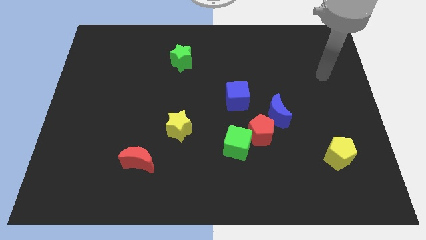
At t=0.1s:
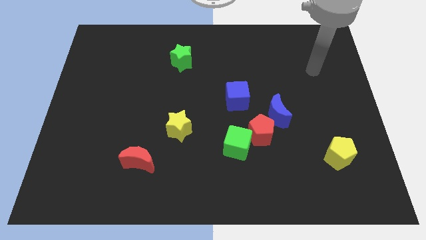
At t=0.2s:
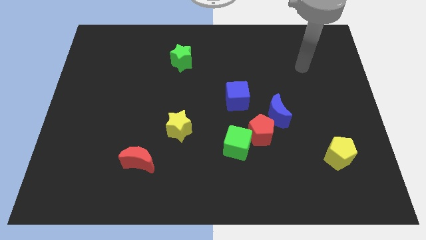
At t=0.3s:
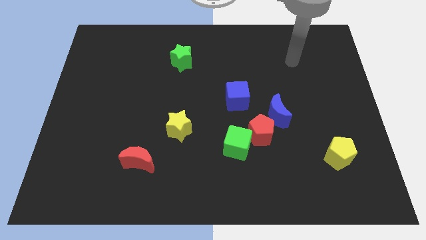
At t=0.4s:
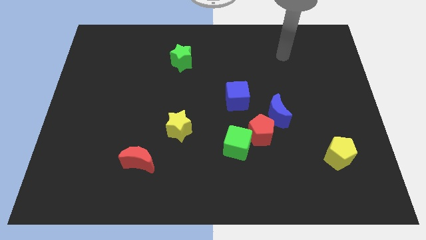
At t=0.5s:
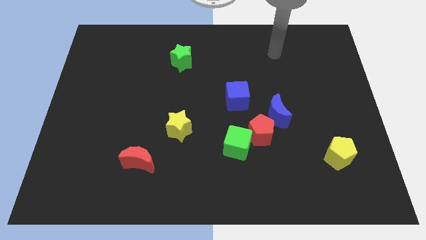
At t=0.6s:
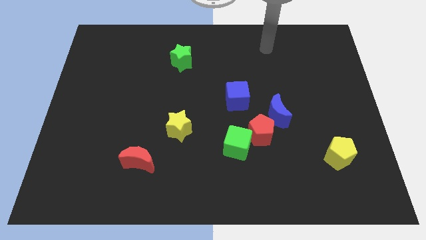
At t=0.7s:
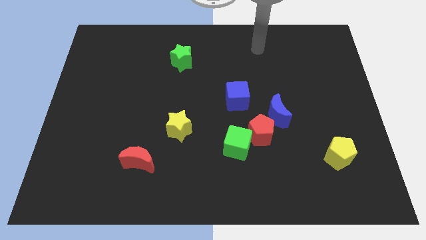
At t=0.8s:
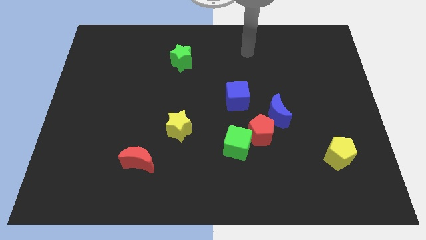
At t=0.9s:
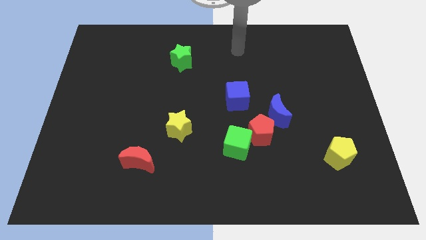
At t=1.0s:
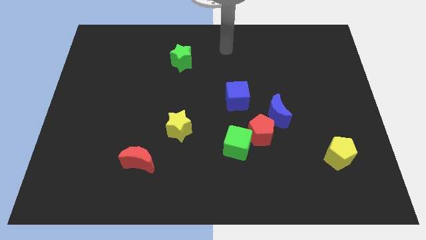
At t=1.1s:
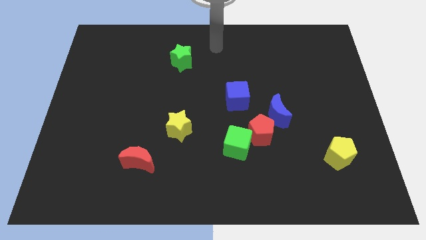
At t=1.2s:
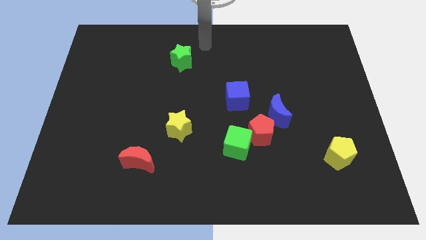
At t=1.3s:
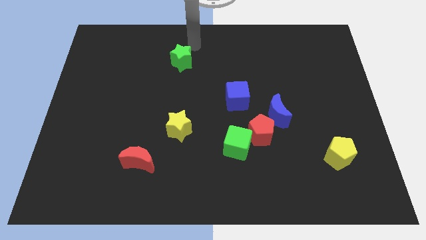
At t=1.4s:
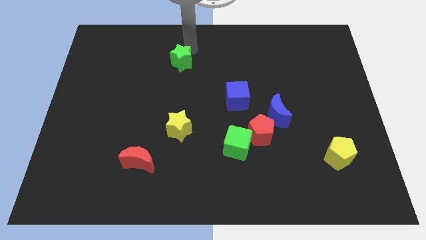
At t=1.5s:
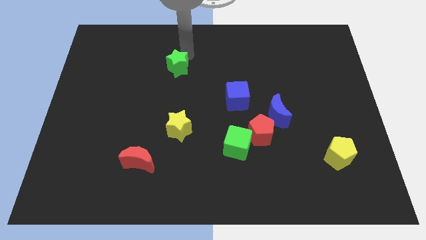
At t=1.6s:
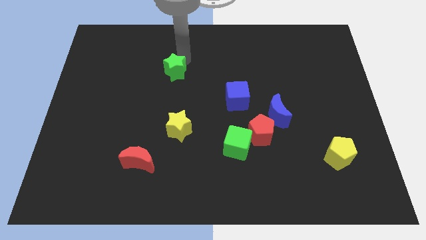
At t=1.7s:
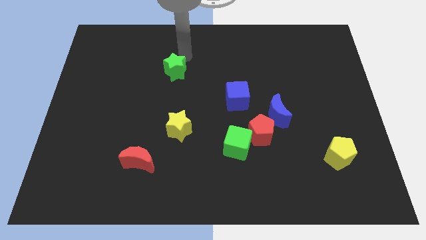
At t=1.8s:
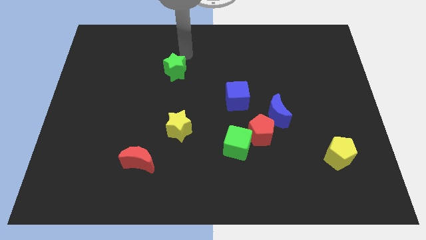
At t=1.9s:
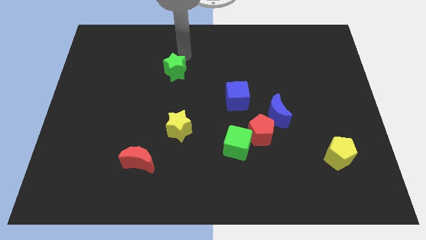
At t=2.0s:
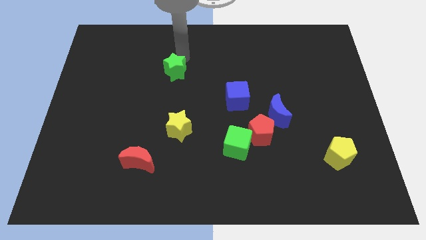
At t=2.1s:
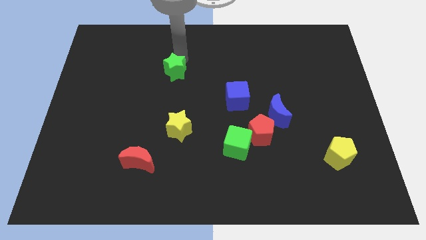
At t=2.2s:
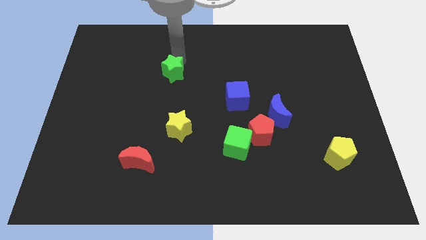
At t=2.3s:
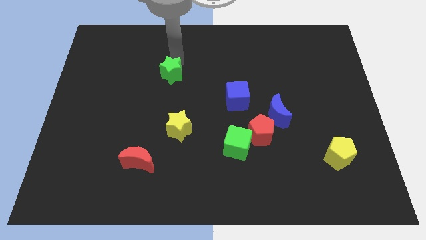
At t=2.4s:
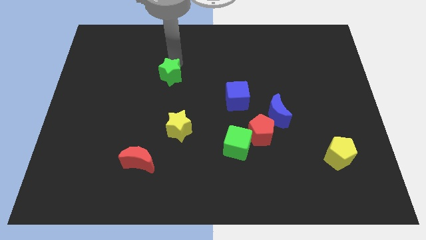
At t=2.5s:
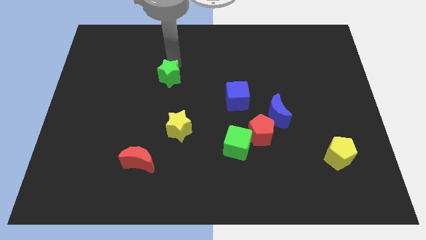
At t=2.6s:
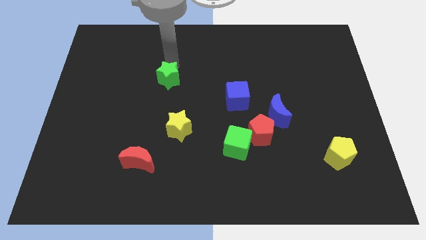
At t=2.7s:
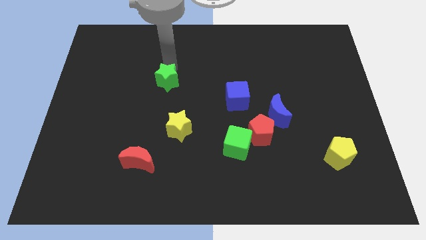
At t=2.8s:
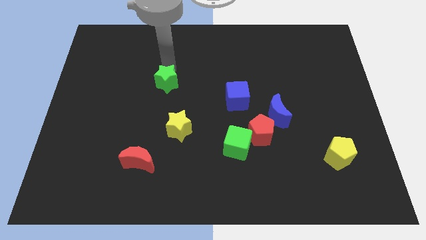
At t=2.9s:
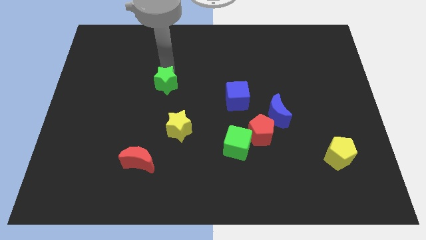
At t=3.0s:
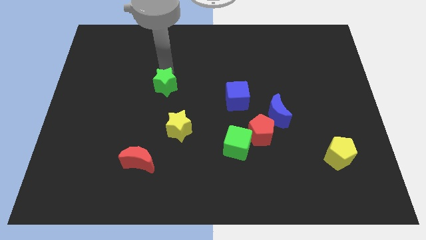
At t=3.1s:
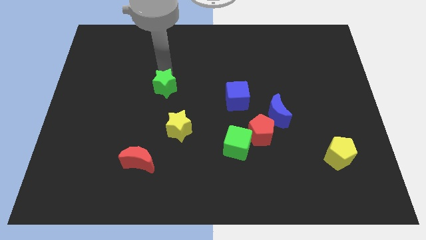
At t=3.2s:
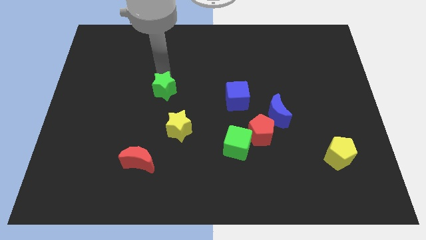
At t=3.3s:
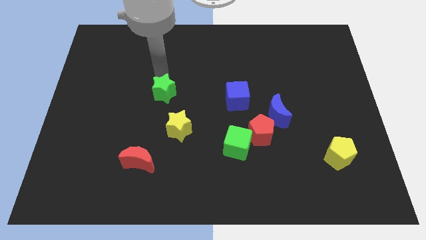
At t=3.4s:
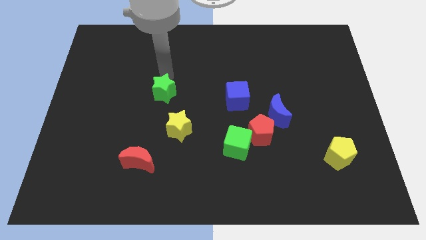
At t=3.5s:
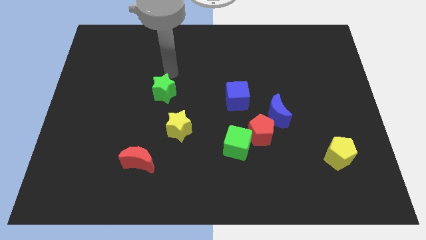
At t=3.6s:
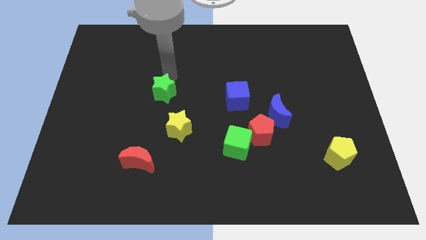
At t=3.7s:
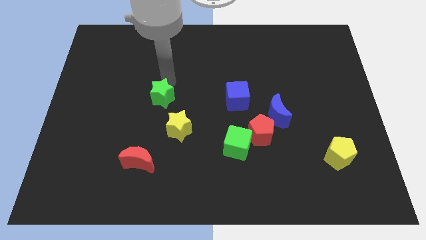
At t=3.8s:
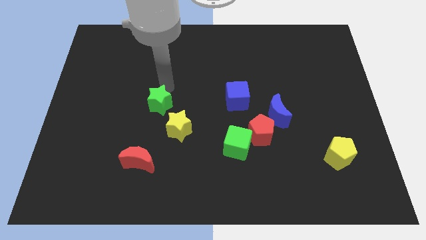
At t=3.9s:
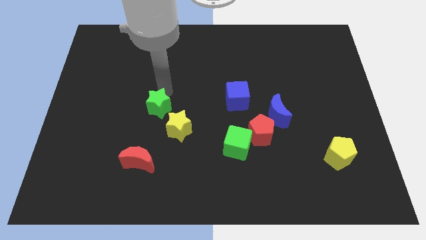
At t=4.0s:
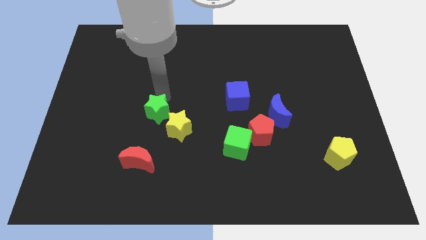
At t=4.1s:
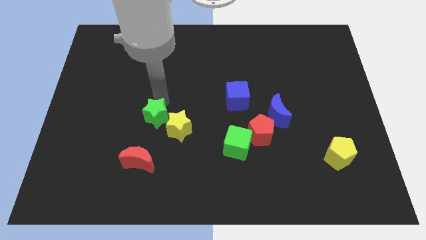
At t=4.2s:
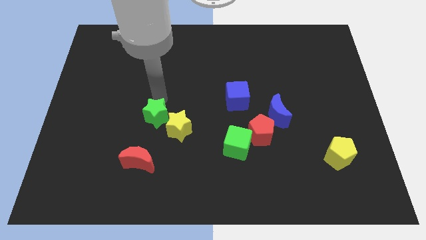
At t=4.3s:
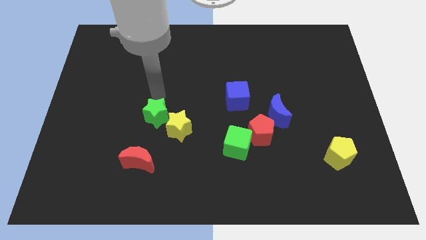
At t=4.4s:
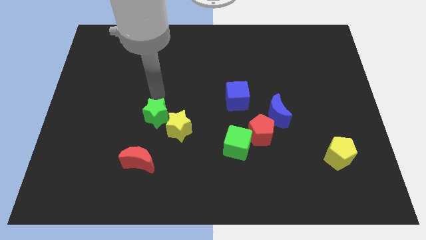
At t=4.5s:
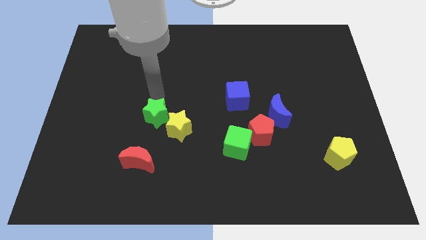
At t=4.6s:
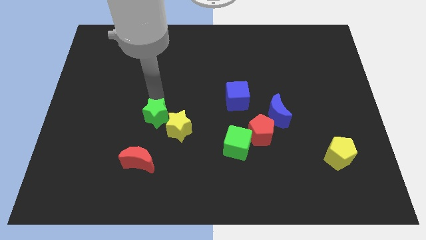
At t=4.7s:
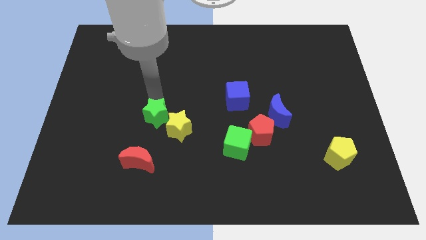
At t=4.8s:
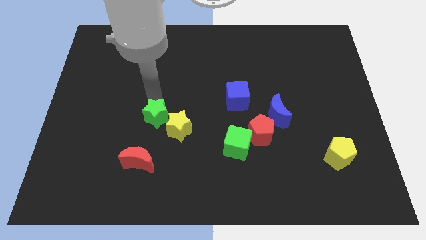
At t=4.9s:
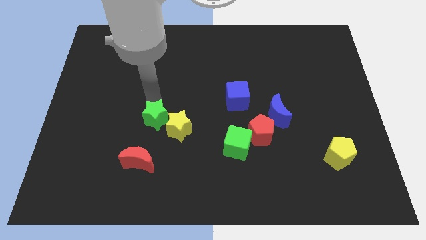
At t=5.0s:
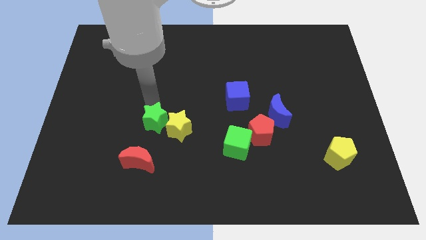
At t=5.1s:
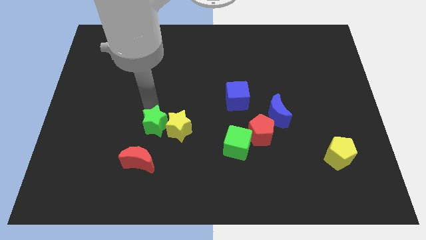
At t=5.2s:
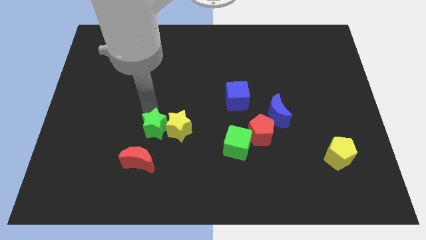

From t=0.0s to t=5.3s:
move the green star downwards

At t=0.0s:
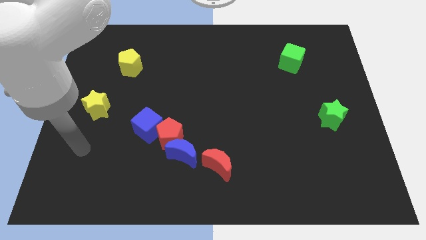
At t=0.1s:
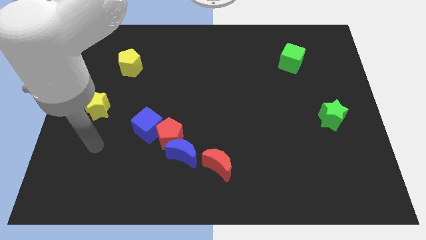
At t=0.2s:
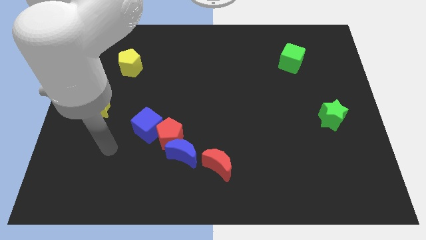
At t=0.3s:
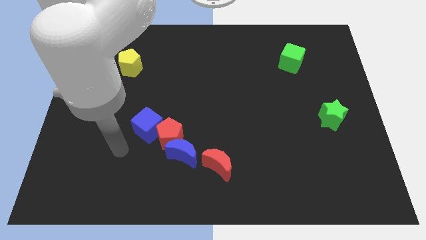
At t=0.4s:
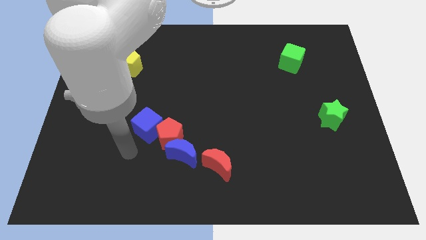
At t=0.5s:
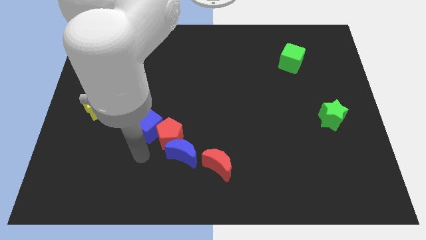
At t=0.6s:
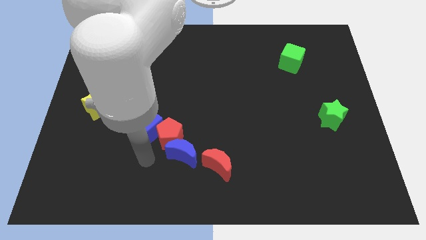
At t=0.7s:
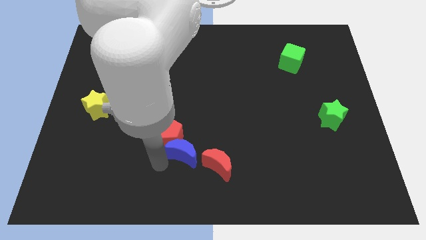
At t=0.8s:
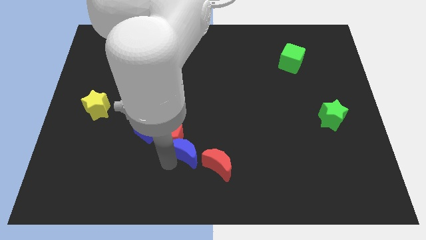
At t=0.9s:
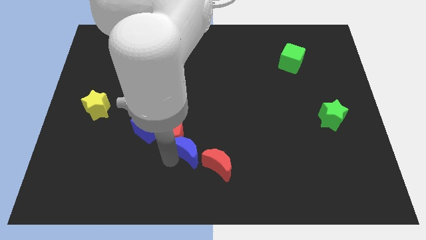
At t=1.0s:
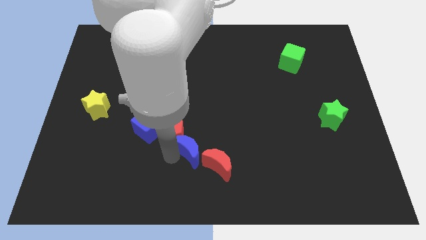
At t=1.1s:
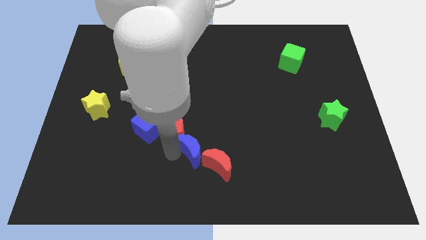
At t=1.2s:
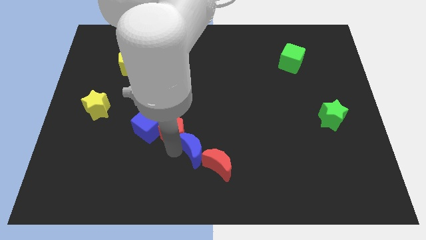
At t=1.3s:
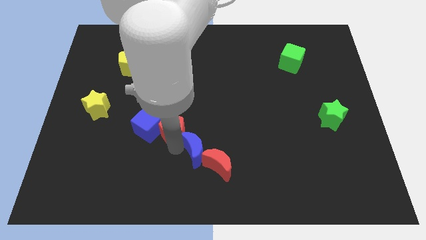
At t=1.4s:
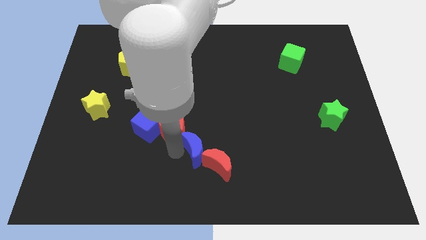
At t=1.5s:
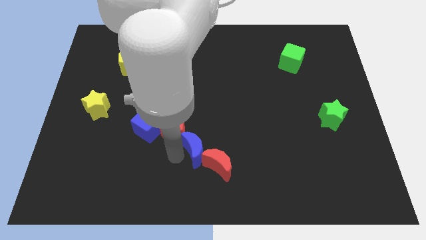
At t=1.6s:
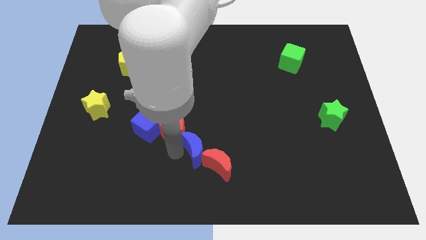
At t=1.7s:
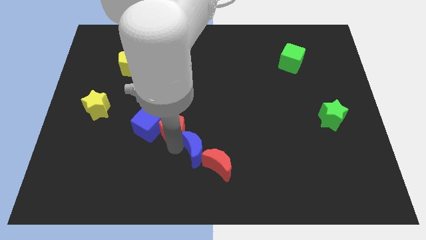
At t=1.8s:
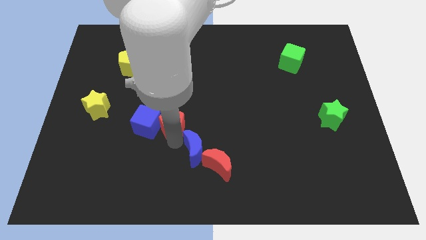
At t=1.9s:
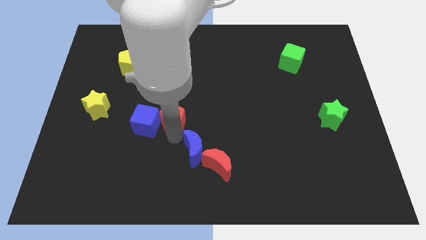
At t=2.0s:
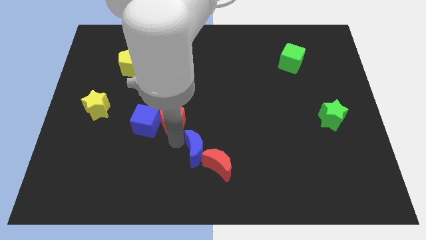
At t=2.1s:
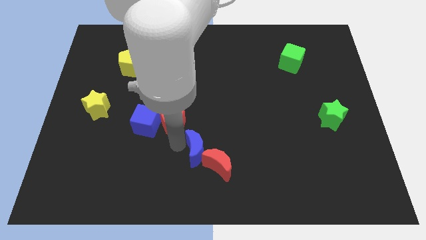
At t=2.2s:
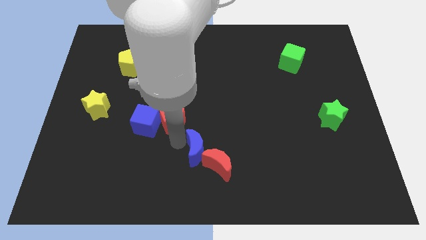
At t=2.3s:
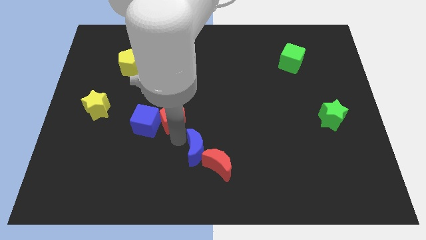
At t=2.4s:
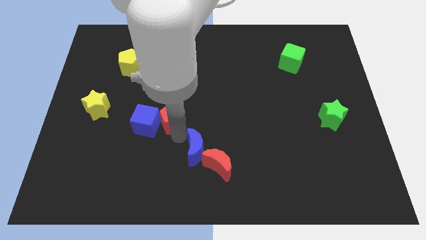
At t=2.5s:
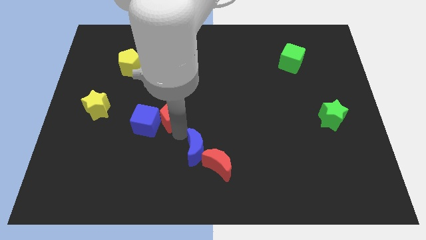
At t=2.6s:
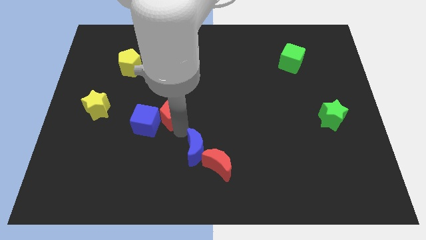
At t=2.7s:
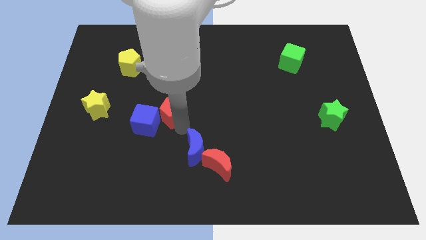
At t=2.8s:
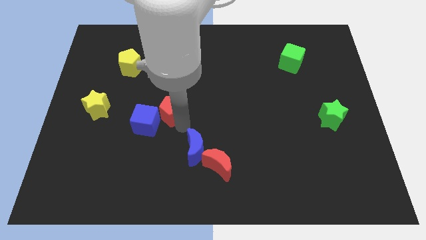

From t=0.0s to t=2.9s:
slightly move the red pentagon up
